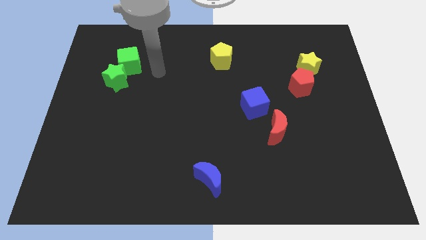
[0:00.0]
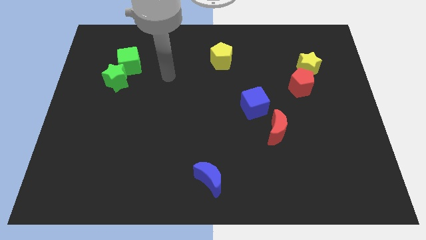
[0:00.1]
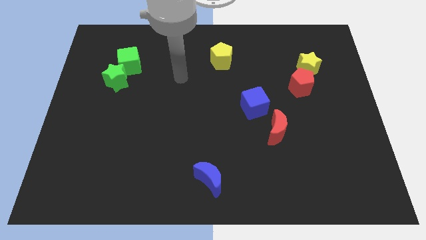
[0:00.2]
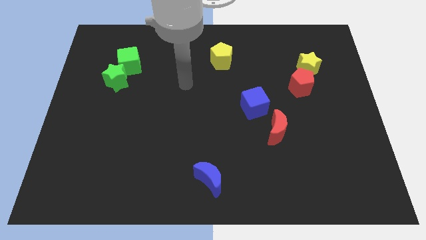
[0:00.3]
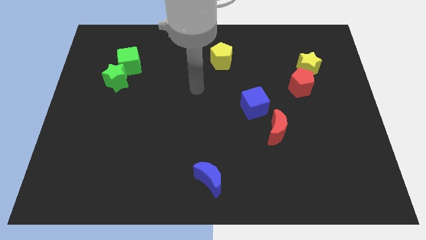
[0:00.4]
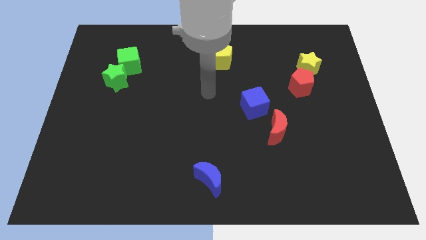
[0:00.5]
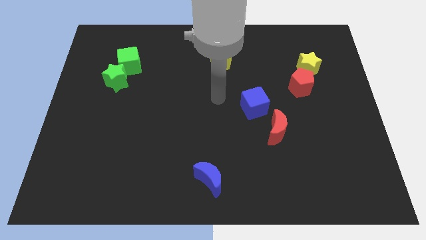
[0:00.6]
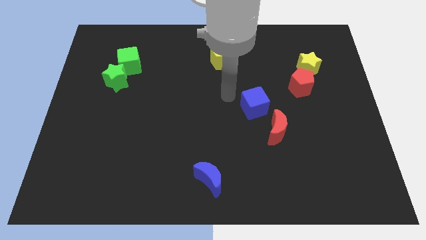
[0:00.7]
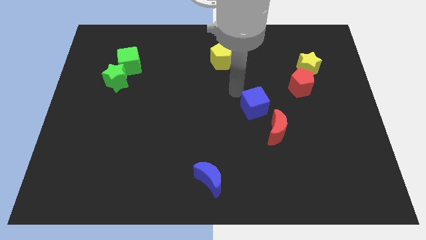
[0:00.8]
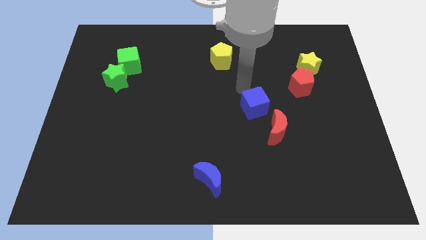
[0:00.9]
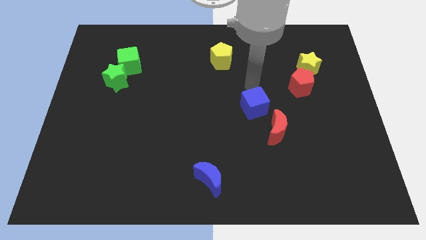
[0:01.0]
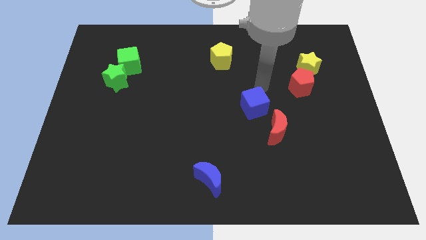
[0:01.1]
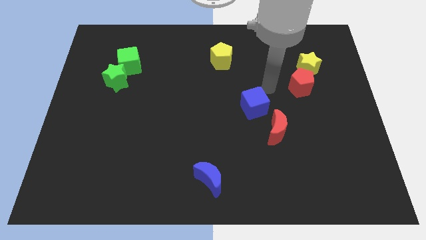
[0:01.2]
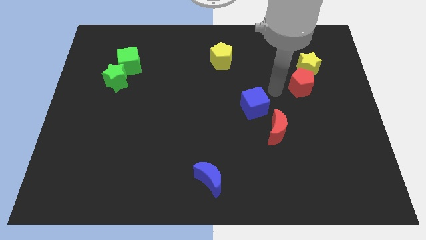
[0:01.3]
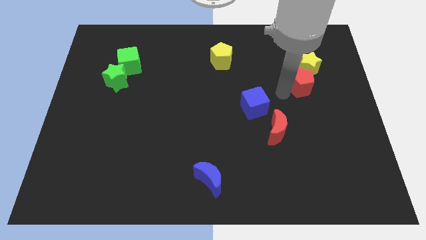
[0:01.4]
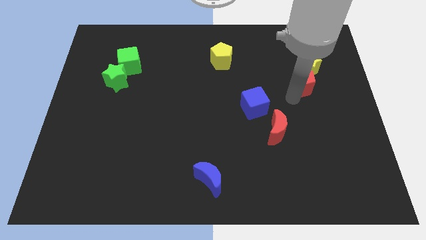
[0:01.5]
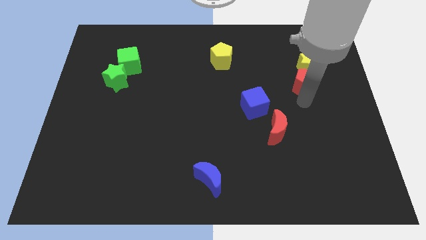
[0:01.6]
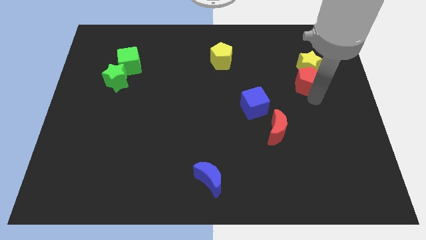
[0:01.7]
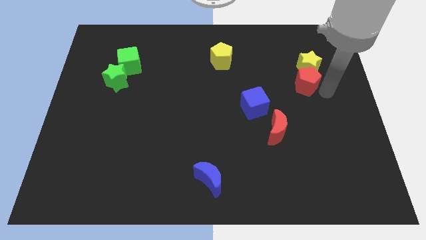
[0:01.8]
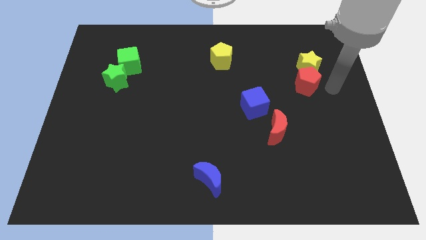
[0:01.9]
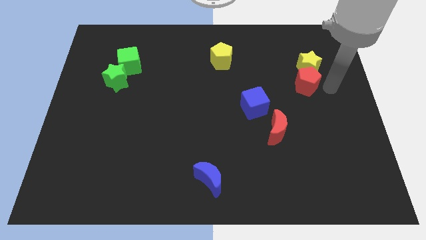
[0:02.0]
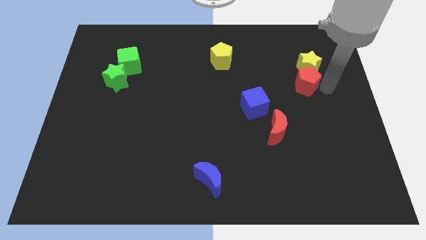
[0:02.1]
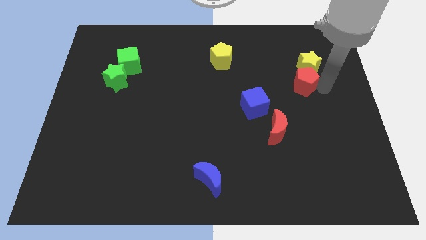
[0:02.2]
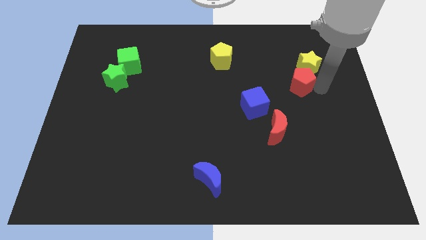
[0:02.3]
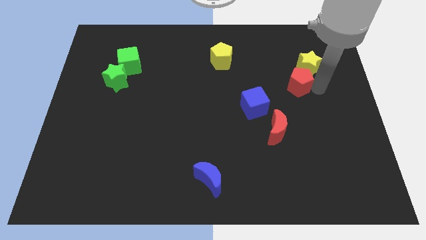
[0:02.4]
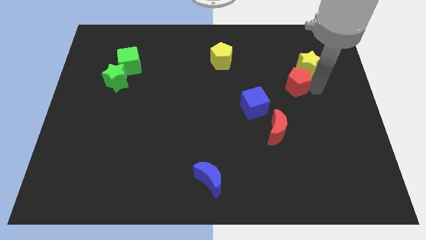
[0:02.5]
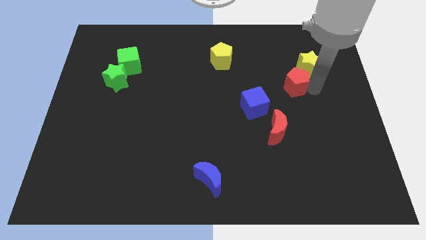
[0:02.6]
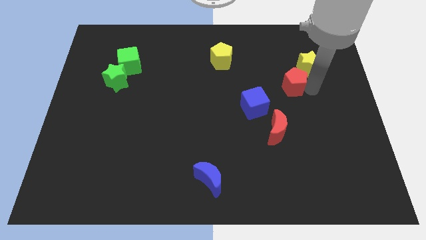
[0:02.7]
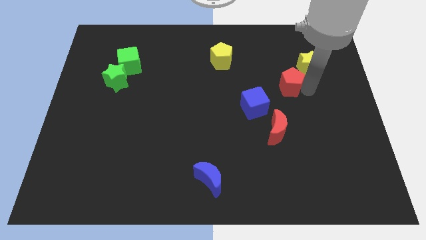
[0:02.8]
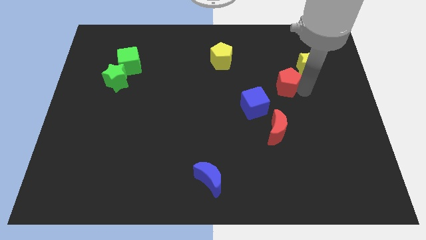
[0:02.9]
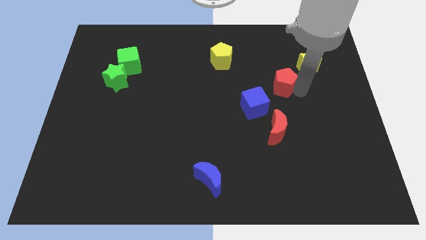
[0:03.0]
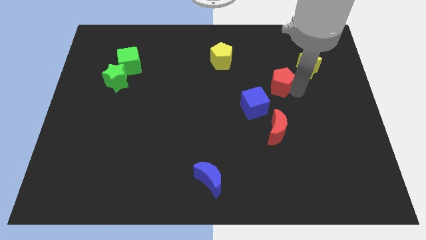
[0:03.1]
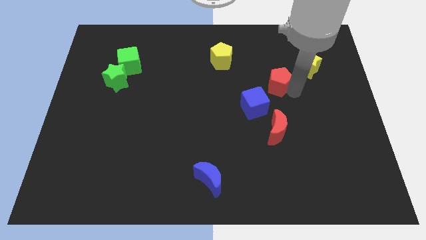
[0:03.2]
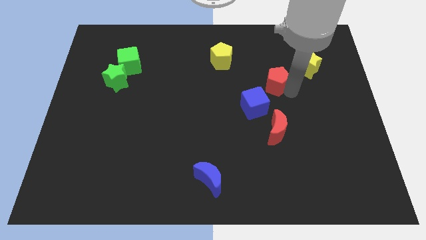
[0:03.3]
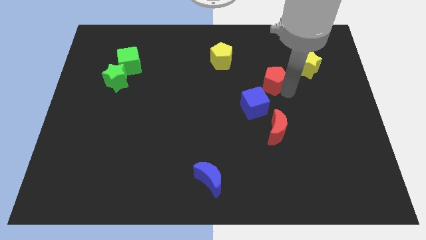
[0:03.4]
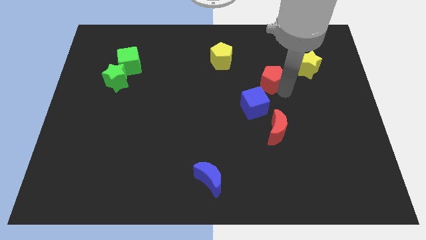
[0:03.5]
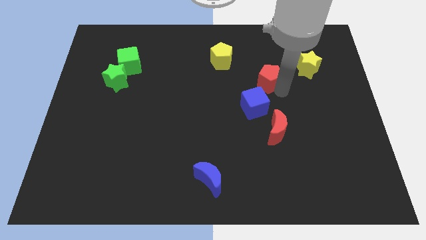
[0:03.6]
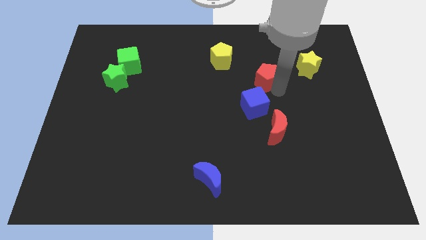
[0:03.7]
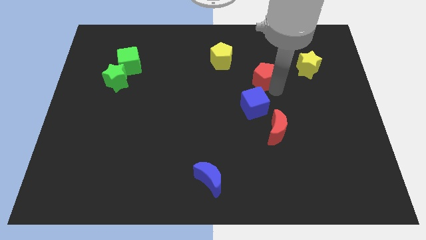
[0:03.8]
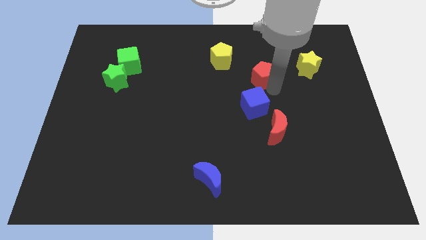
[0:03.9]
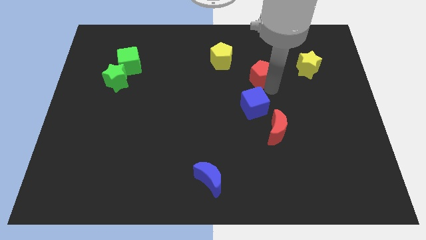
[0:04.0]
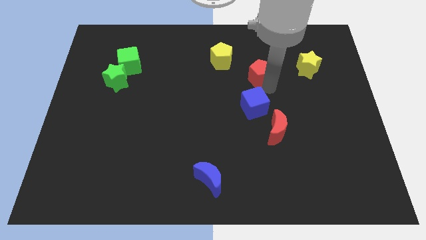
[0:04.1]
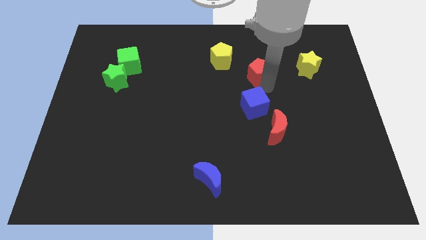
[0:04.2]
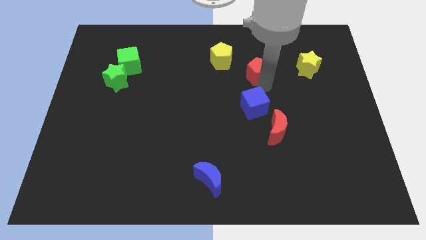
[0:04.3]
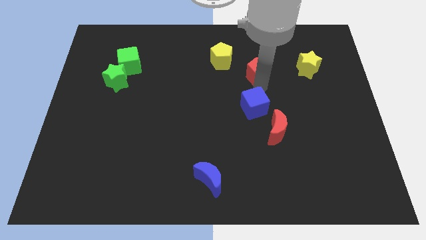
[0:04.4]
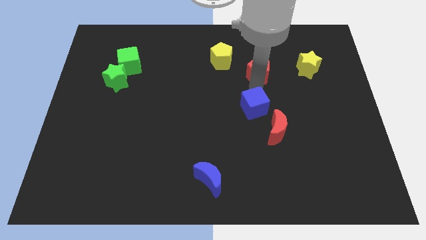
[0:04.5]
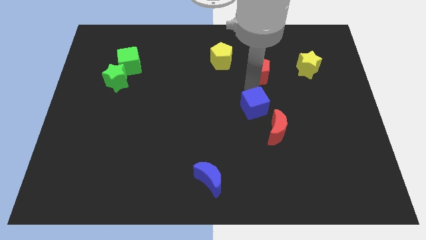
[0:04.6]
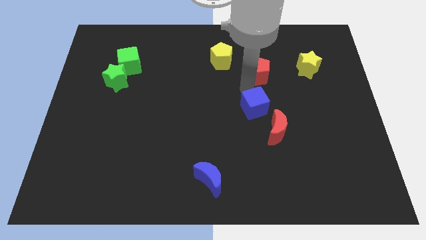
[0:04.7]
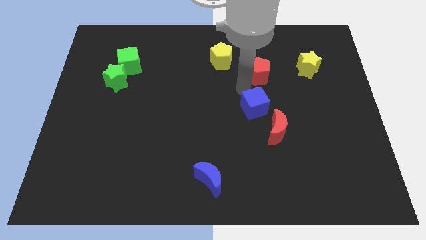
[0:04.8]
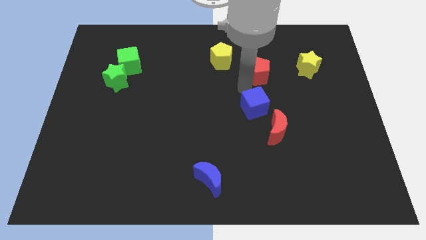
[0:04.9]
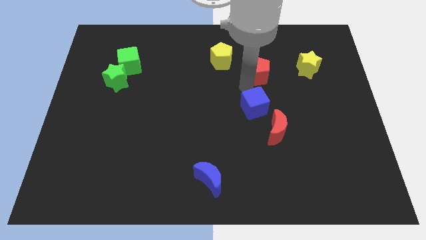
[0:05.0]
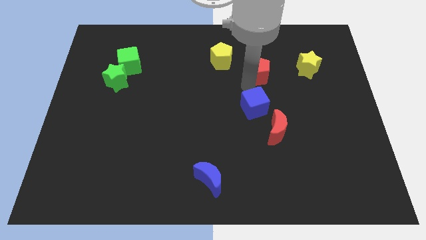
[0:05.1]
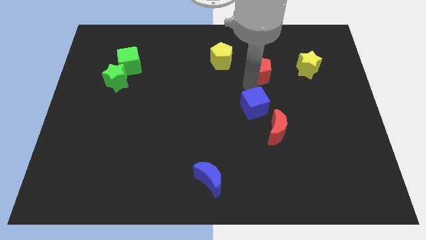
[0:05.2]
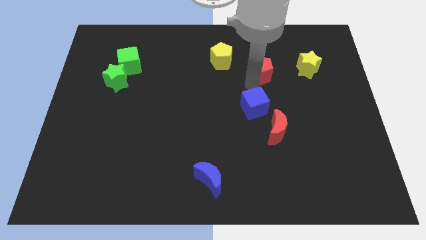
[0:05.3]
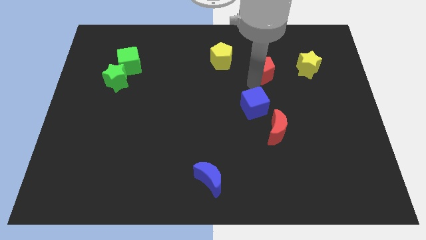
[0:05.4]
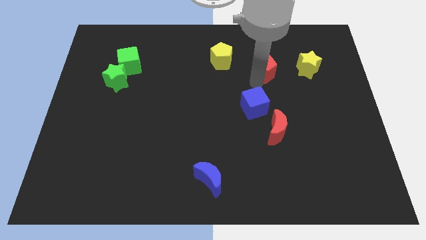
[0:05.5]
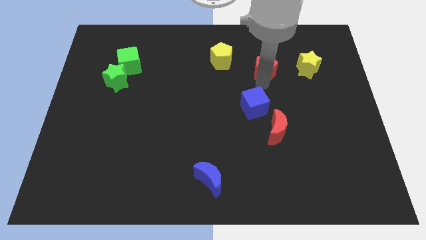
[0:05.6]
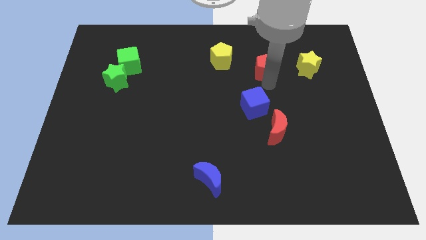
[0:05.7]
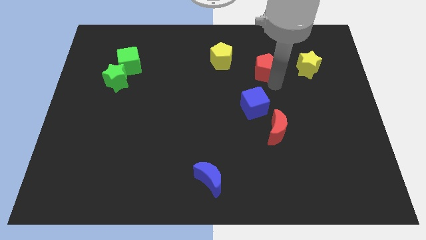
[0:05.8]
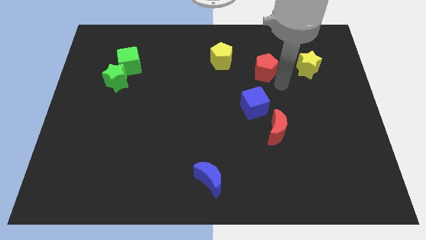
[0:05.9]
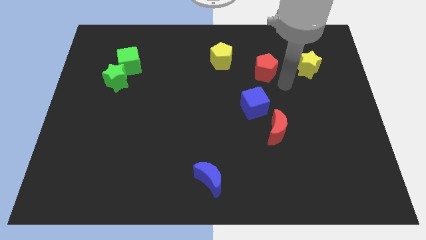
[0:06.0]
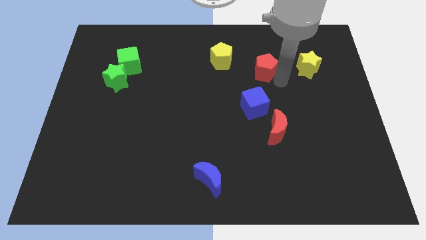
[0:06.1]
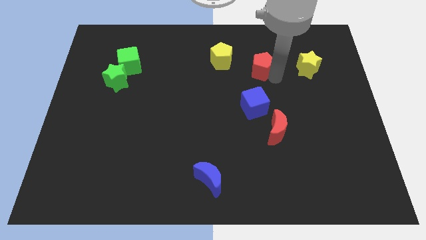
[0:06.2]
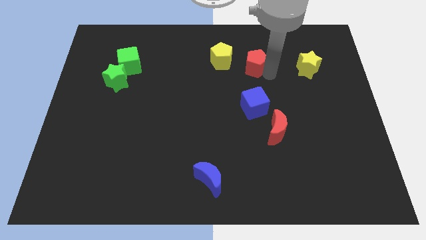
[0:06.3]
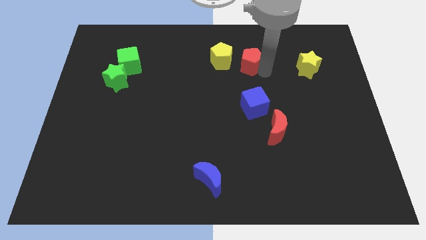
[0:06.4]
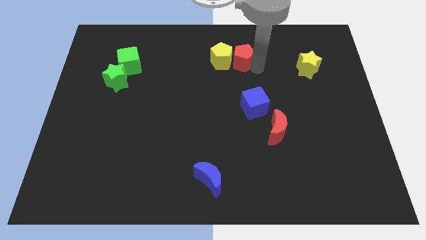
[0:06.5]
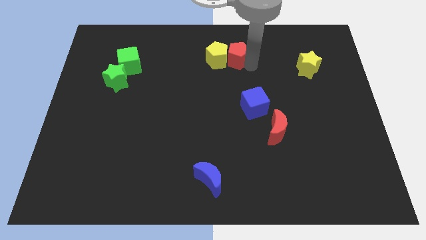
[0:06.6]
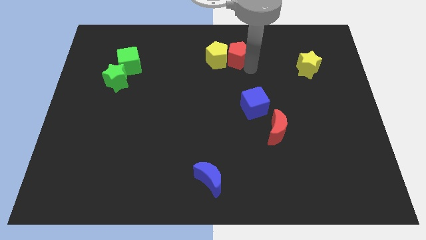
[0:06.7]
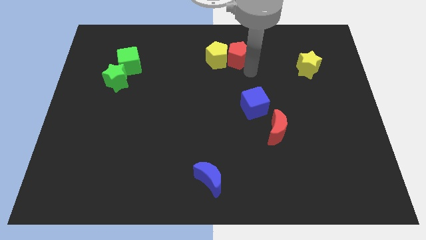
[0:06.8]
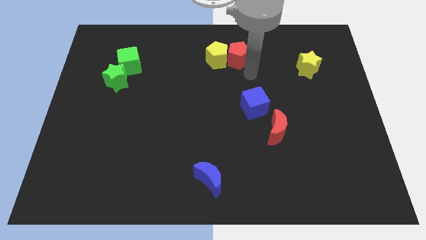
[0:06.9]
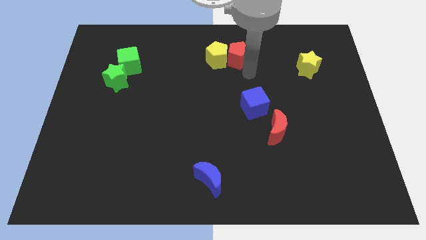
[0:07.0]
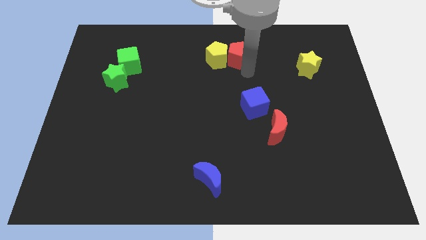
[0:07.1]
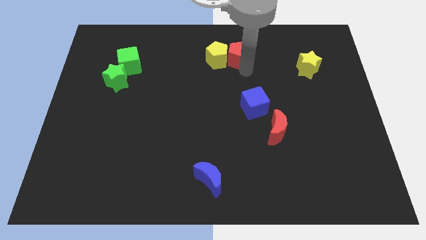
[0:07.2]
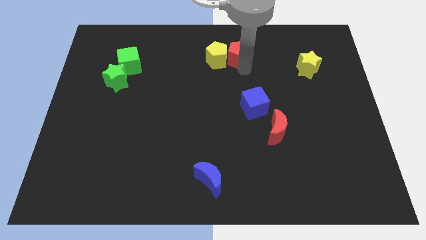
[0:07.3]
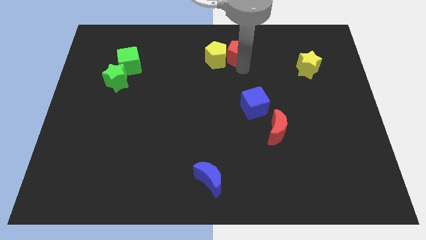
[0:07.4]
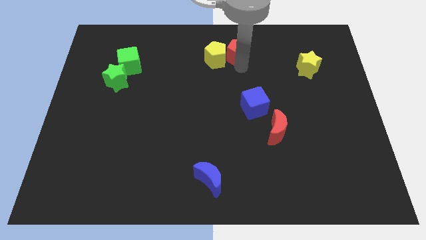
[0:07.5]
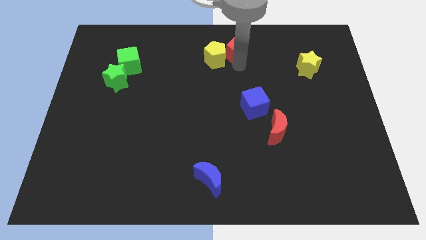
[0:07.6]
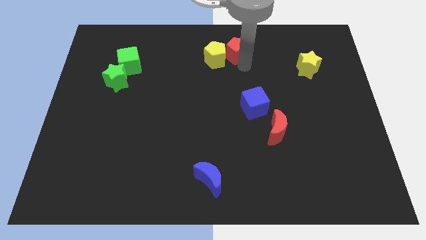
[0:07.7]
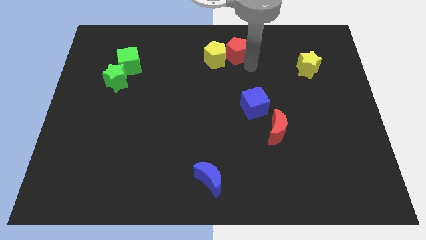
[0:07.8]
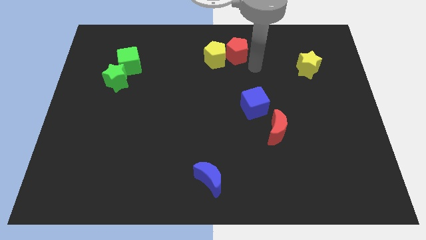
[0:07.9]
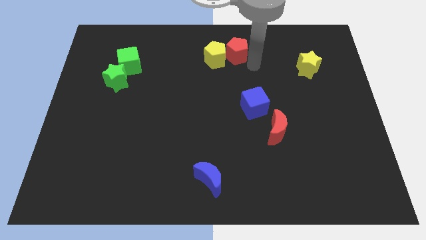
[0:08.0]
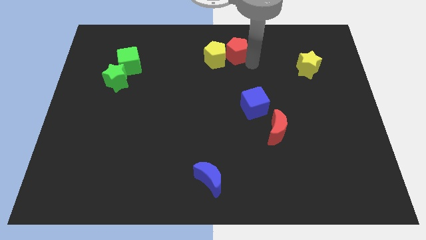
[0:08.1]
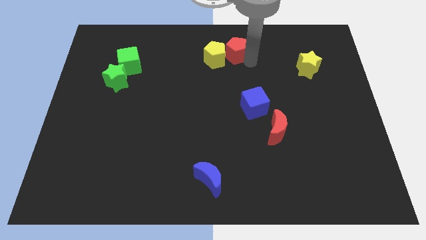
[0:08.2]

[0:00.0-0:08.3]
slide the red pentagon to the towards your base
